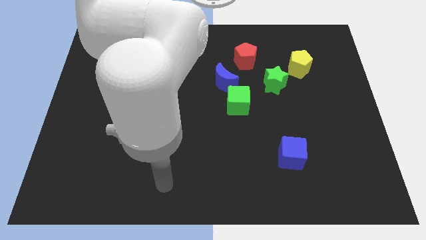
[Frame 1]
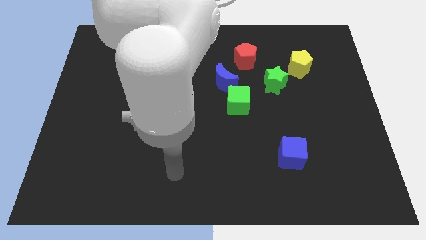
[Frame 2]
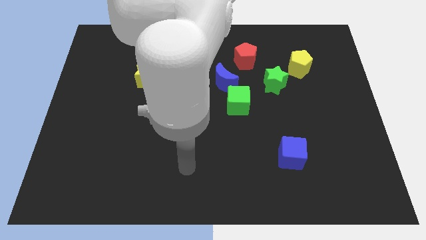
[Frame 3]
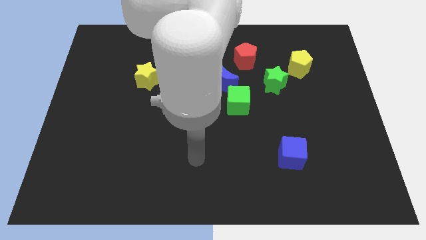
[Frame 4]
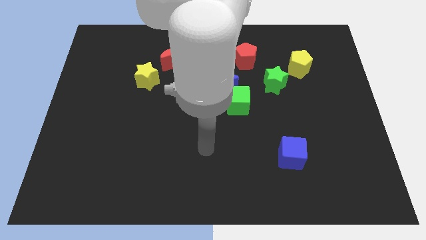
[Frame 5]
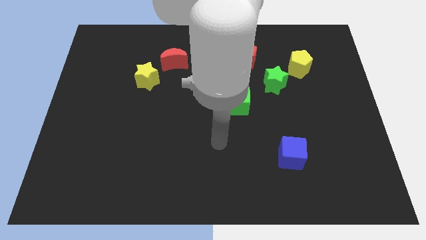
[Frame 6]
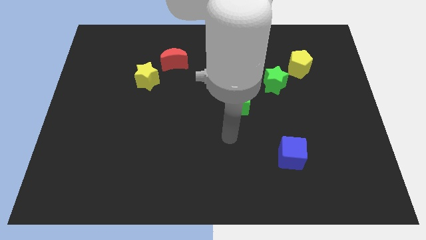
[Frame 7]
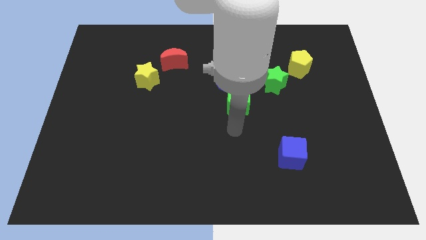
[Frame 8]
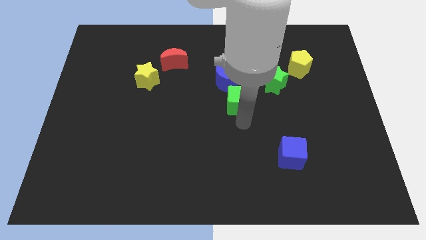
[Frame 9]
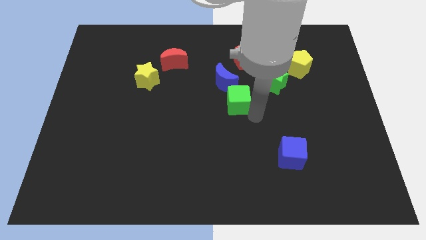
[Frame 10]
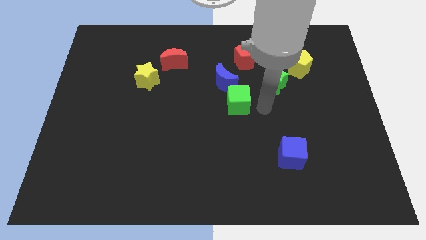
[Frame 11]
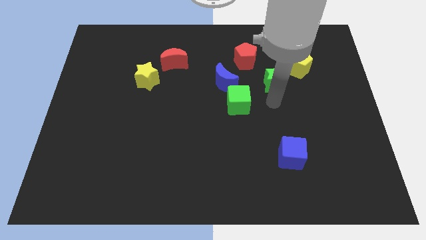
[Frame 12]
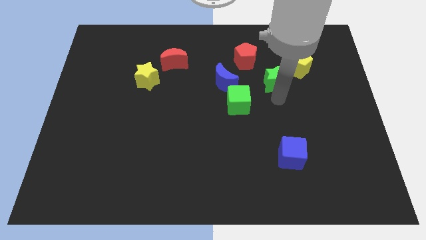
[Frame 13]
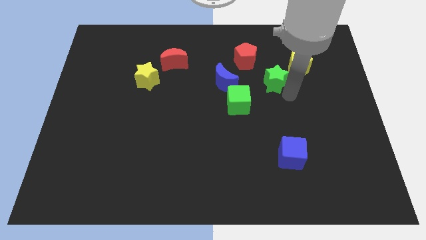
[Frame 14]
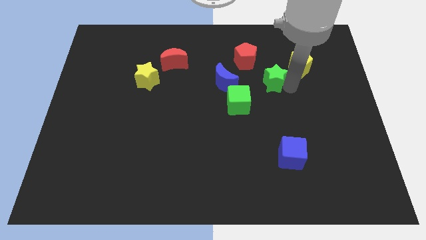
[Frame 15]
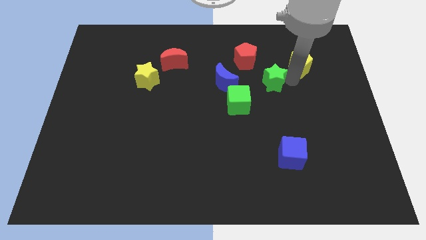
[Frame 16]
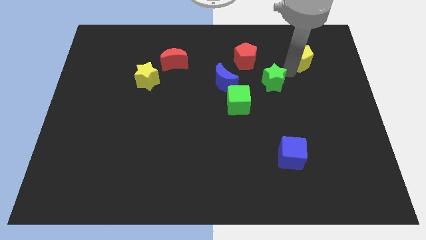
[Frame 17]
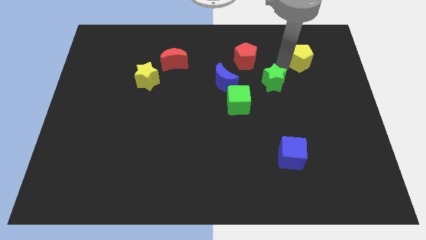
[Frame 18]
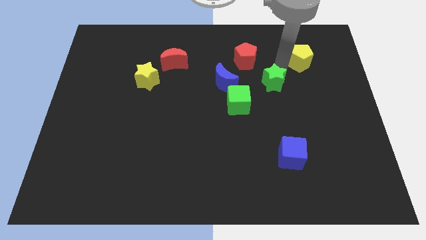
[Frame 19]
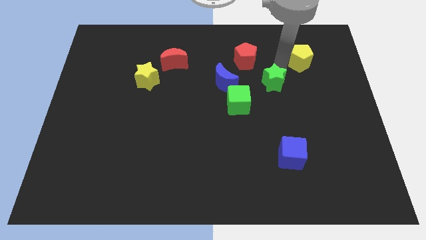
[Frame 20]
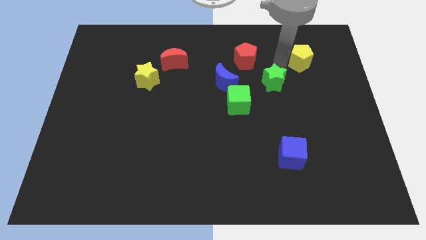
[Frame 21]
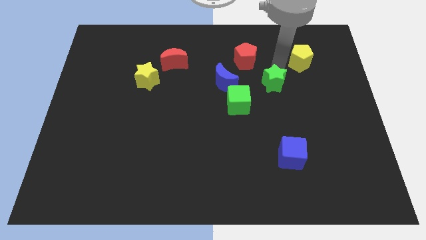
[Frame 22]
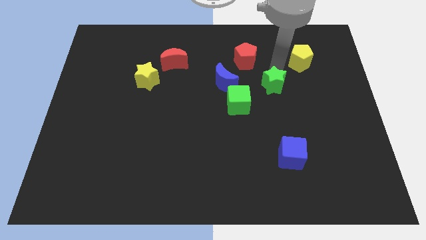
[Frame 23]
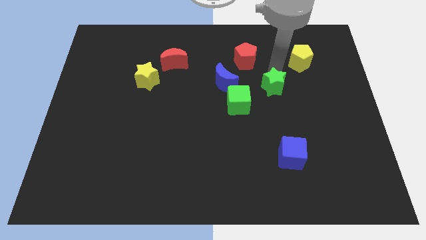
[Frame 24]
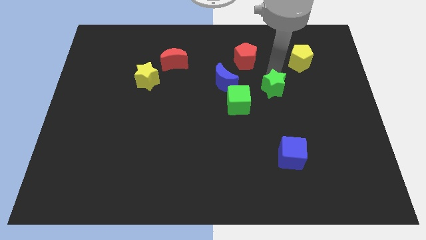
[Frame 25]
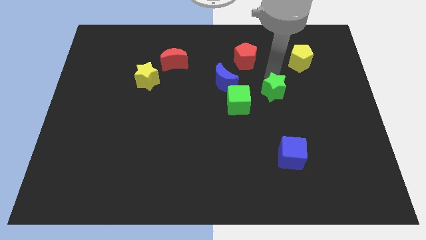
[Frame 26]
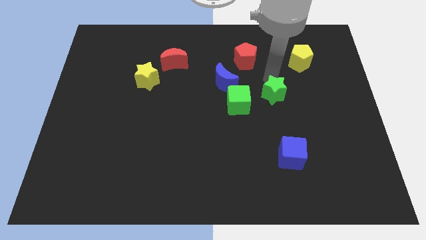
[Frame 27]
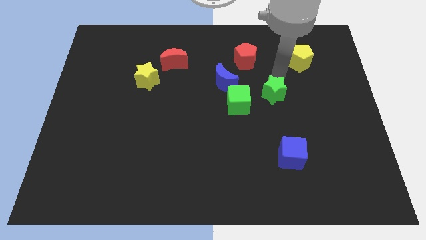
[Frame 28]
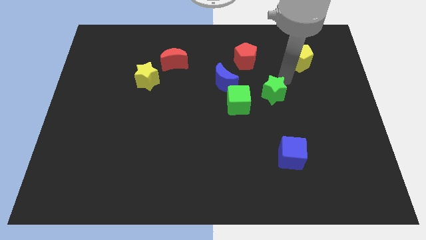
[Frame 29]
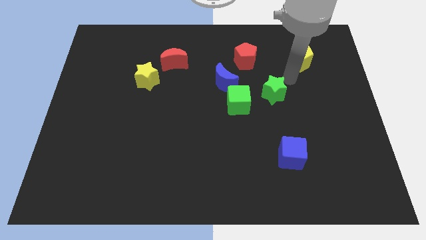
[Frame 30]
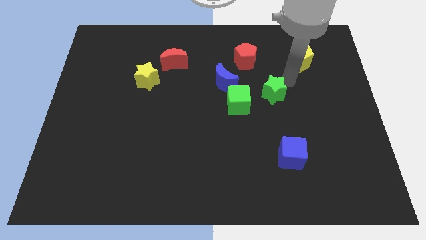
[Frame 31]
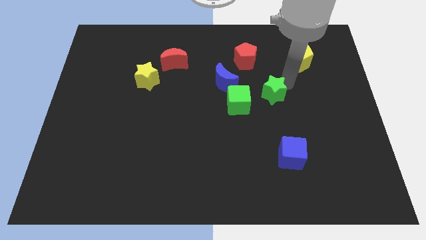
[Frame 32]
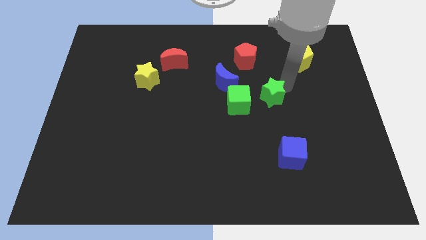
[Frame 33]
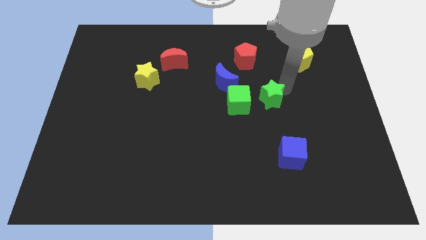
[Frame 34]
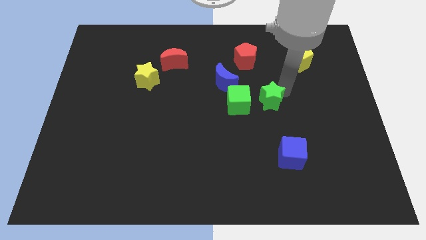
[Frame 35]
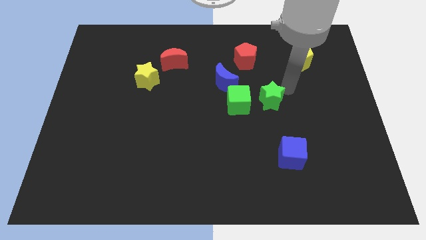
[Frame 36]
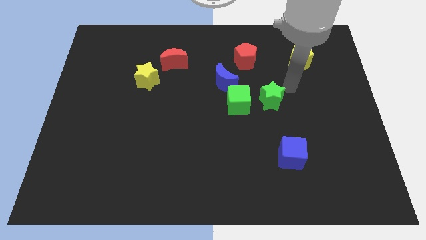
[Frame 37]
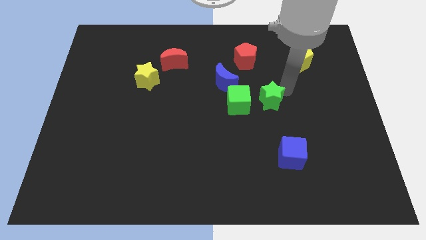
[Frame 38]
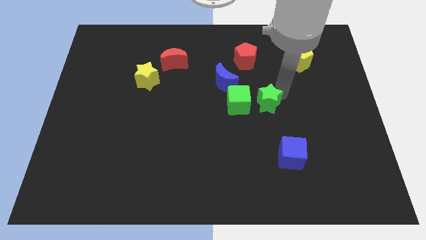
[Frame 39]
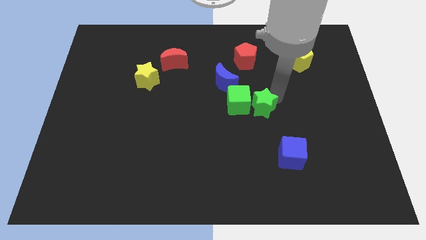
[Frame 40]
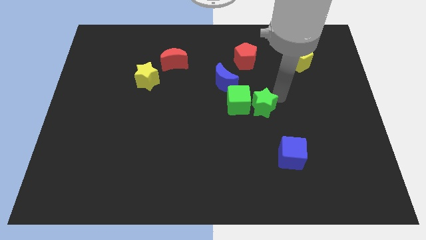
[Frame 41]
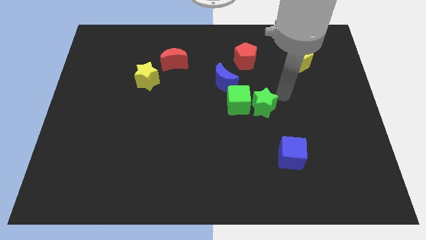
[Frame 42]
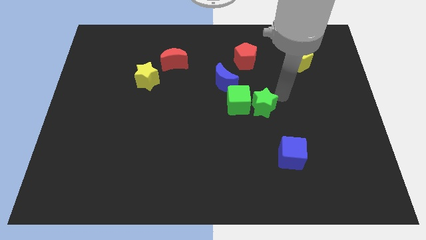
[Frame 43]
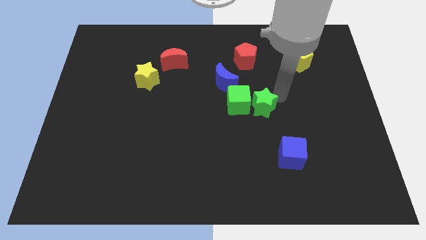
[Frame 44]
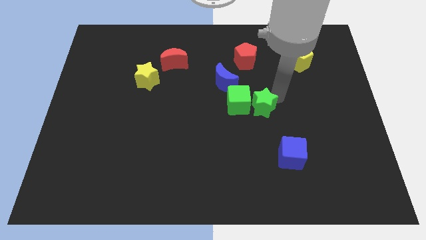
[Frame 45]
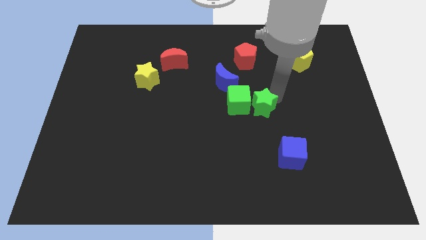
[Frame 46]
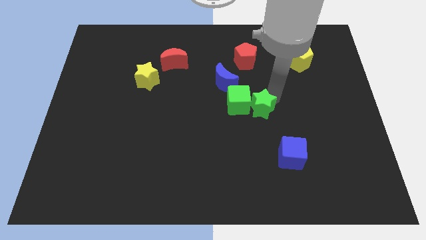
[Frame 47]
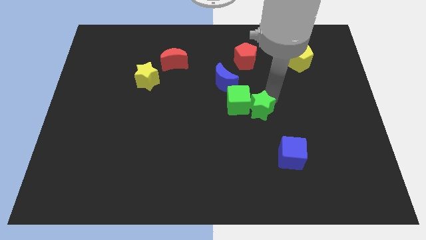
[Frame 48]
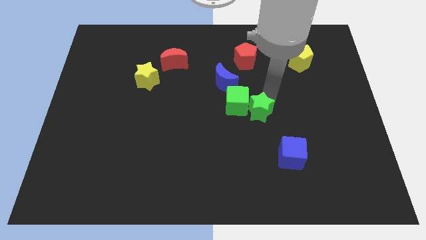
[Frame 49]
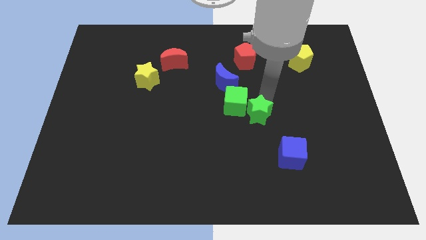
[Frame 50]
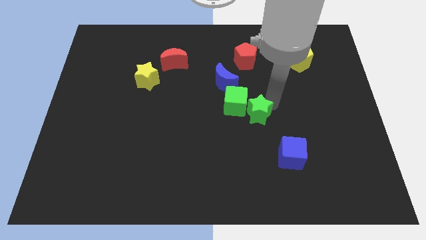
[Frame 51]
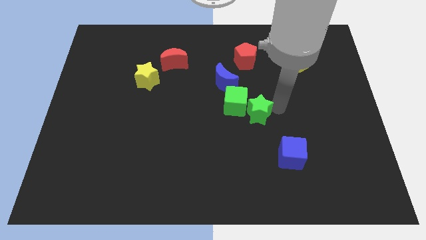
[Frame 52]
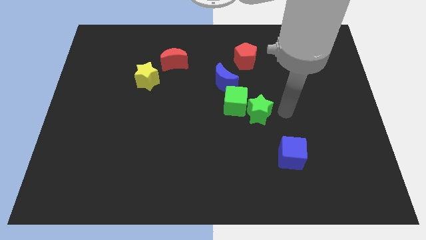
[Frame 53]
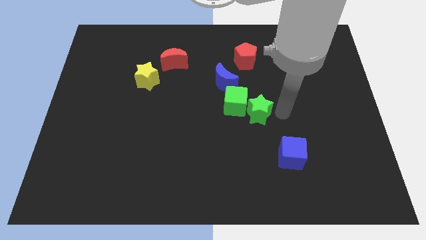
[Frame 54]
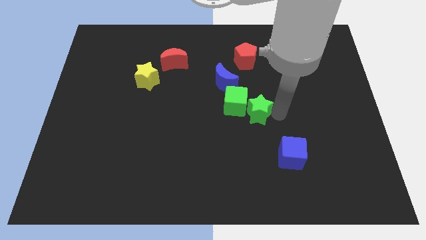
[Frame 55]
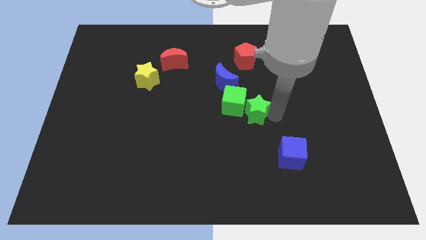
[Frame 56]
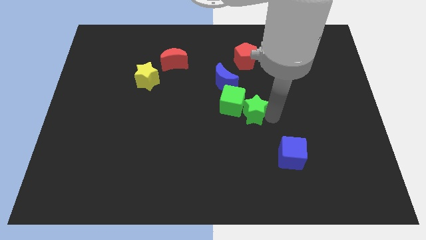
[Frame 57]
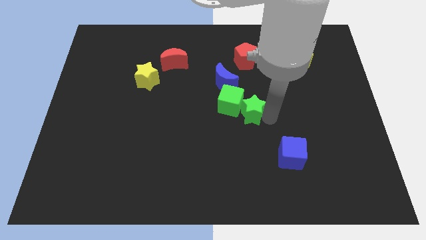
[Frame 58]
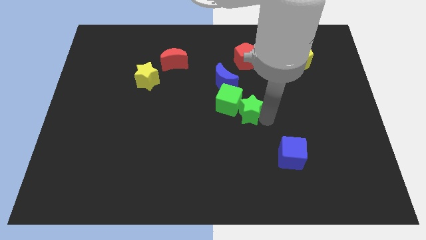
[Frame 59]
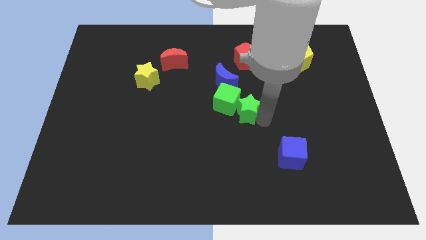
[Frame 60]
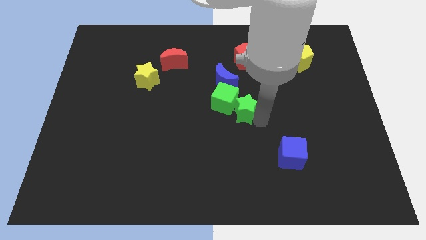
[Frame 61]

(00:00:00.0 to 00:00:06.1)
push the green star to the bottom of the blue moon

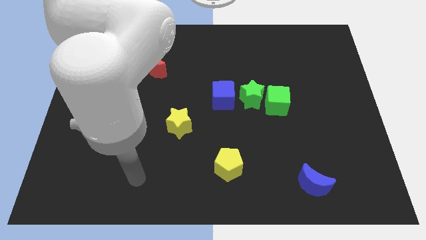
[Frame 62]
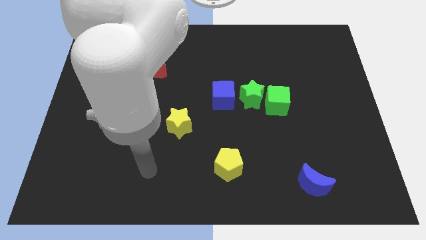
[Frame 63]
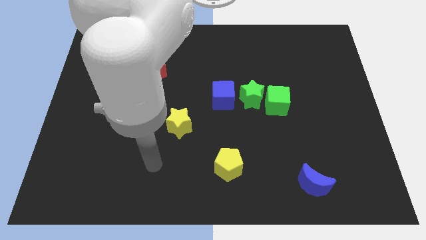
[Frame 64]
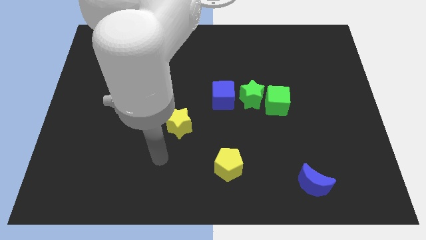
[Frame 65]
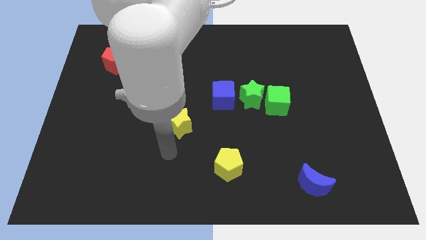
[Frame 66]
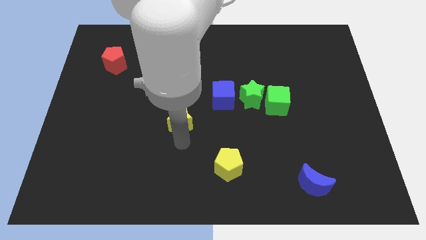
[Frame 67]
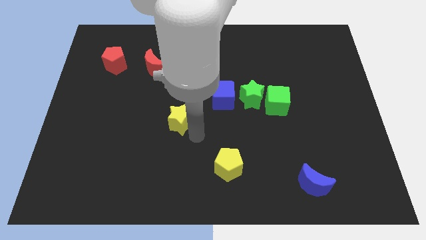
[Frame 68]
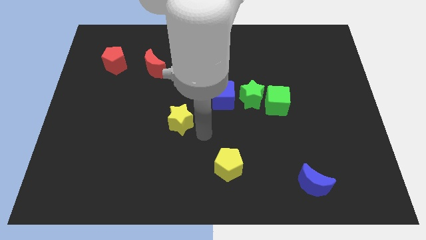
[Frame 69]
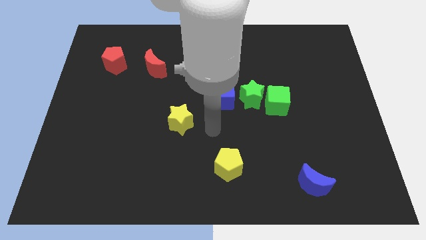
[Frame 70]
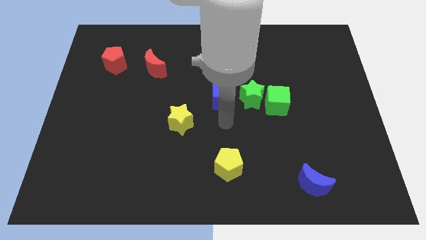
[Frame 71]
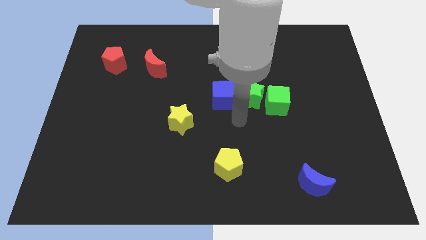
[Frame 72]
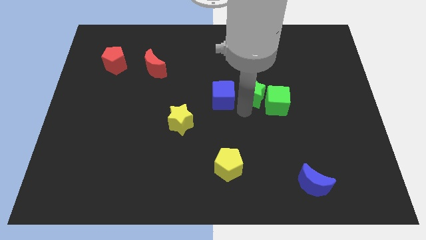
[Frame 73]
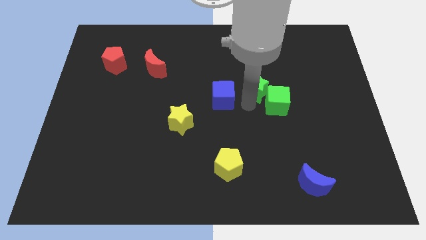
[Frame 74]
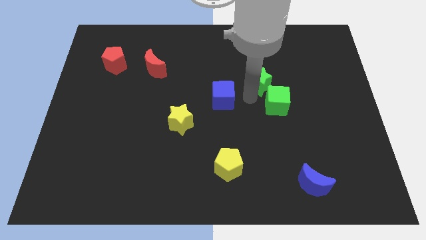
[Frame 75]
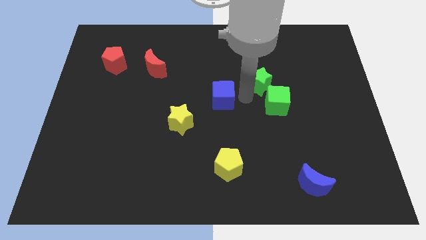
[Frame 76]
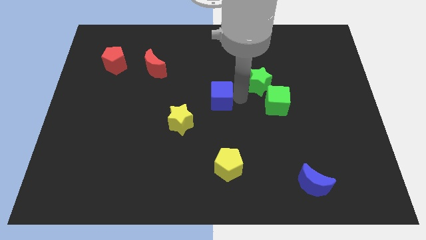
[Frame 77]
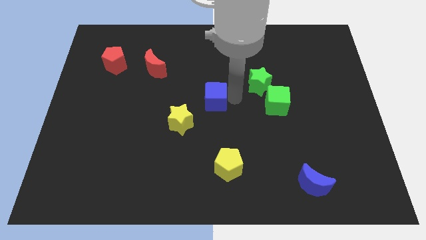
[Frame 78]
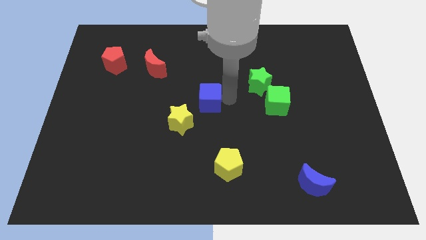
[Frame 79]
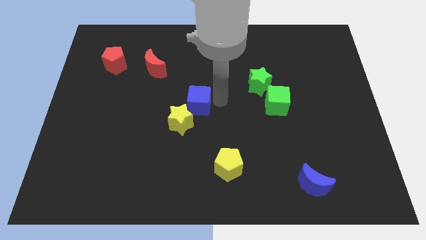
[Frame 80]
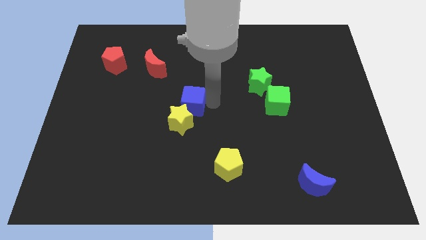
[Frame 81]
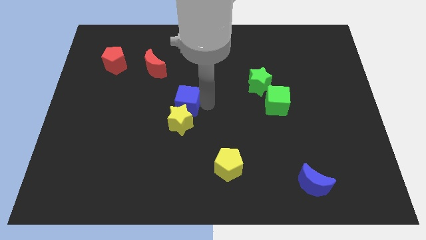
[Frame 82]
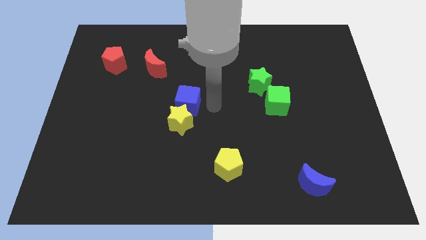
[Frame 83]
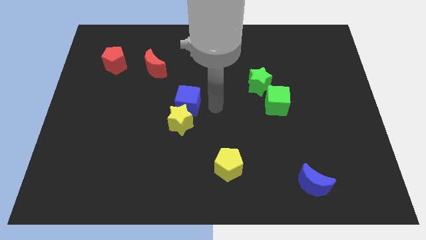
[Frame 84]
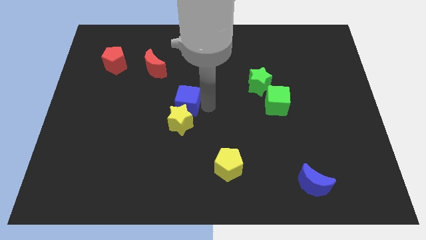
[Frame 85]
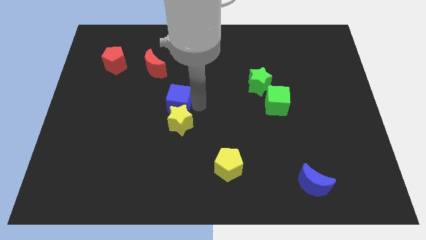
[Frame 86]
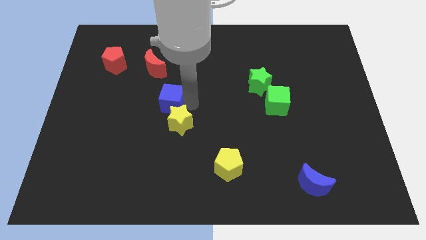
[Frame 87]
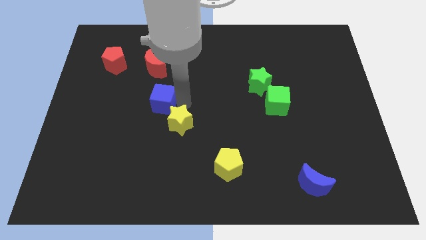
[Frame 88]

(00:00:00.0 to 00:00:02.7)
move the blue cube below the red moon
